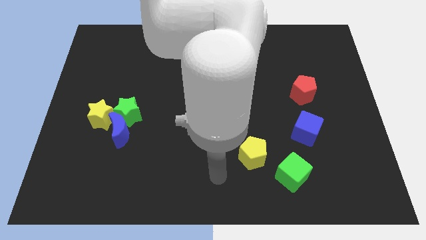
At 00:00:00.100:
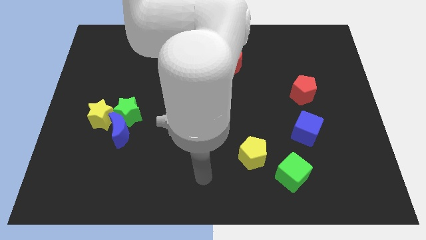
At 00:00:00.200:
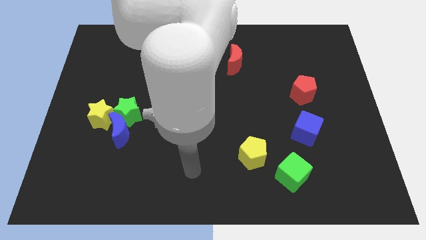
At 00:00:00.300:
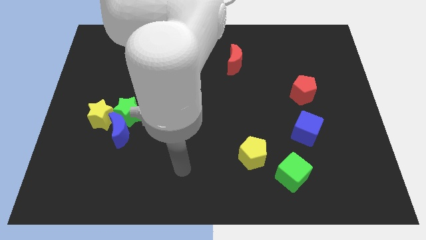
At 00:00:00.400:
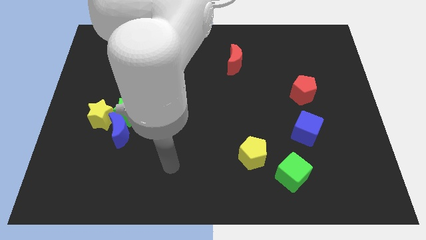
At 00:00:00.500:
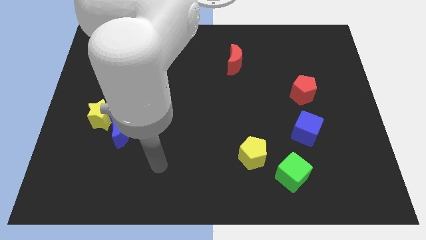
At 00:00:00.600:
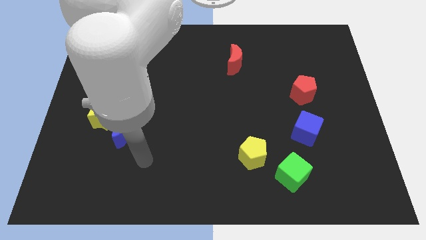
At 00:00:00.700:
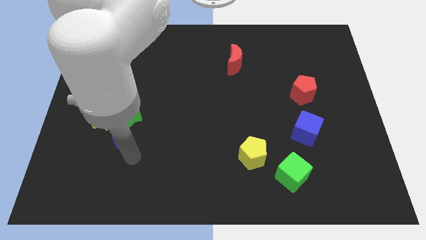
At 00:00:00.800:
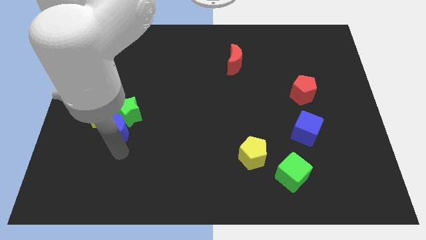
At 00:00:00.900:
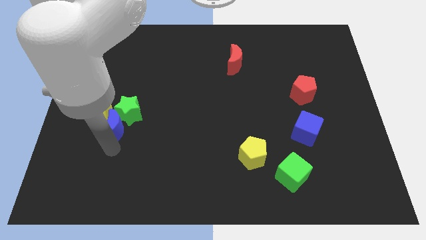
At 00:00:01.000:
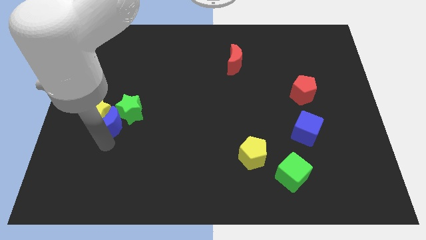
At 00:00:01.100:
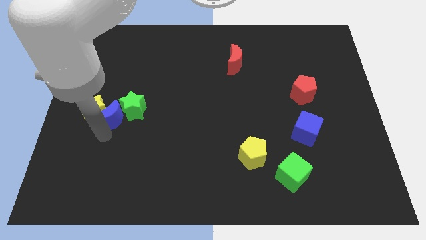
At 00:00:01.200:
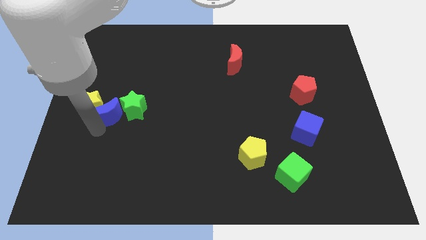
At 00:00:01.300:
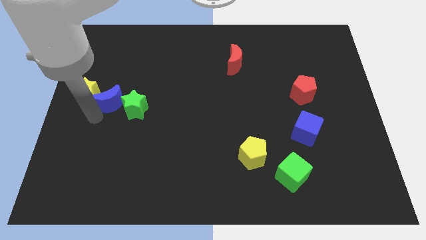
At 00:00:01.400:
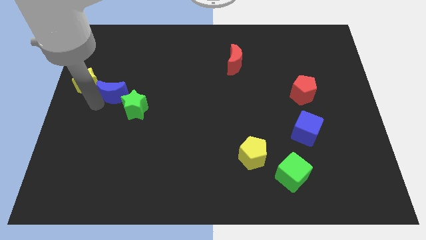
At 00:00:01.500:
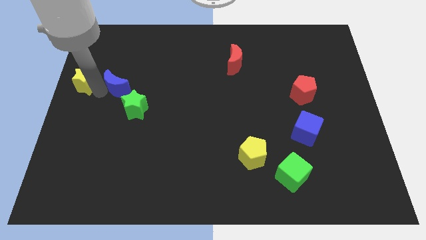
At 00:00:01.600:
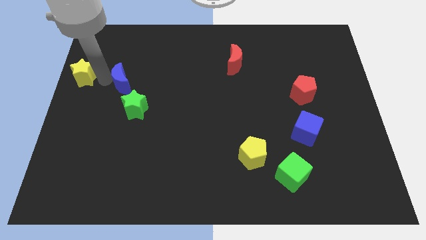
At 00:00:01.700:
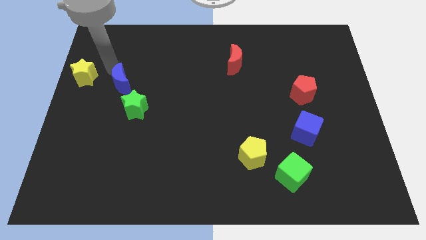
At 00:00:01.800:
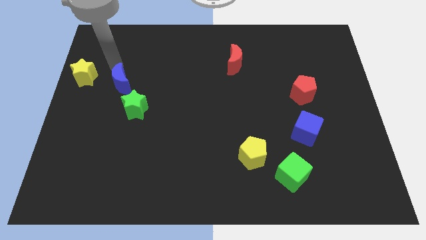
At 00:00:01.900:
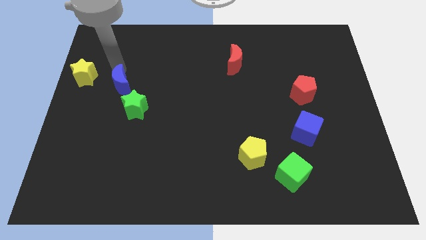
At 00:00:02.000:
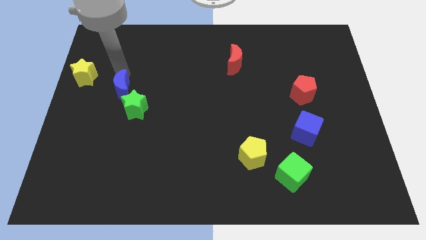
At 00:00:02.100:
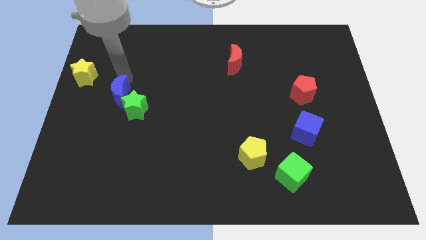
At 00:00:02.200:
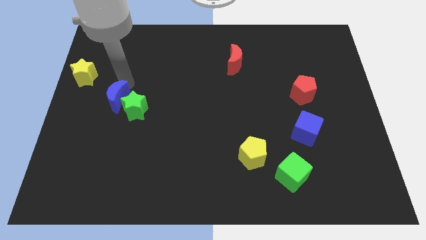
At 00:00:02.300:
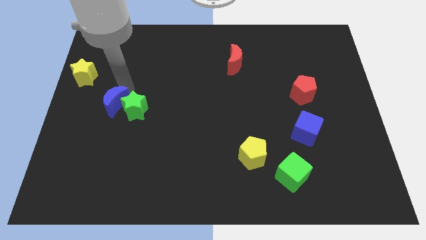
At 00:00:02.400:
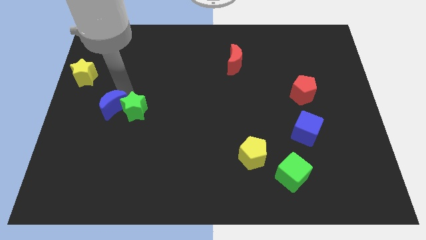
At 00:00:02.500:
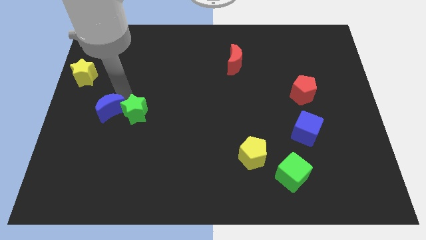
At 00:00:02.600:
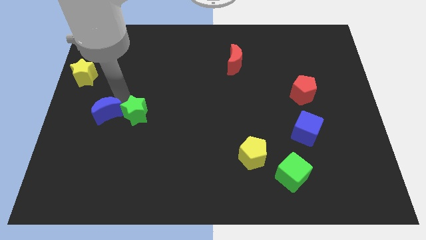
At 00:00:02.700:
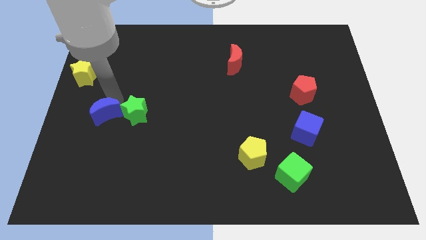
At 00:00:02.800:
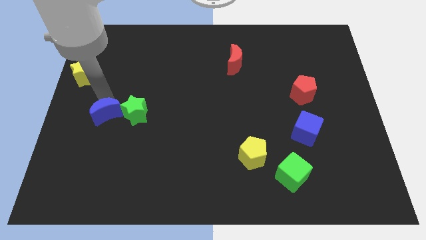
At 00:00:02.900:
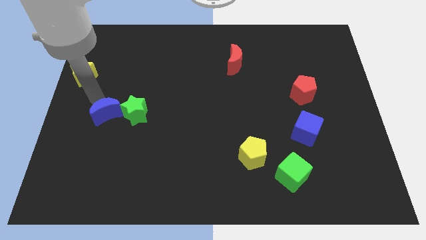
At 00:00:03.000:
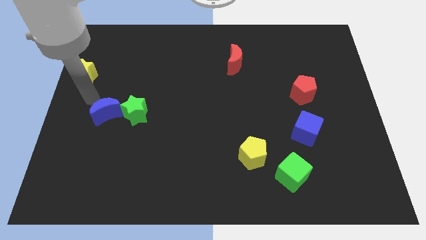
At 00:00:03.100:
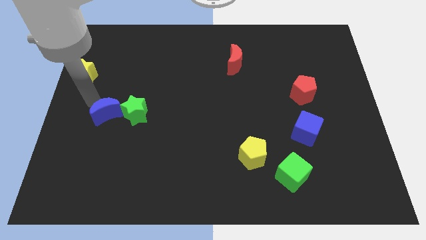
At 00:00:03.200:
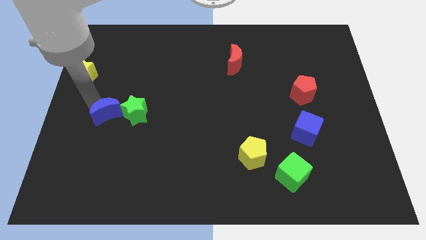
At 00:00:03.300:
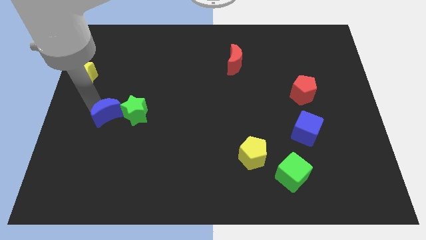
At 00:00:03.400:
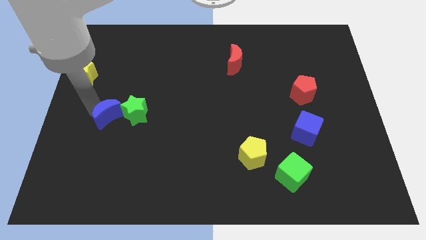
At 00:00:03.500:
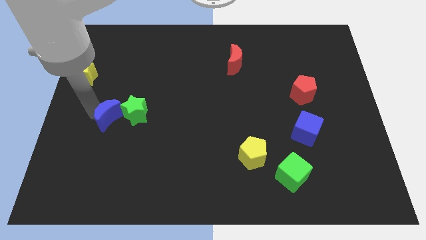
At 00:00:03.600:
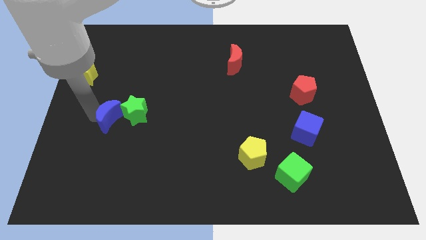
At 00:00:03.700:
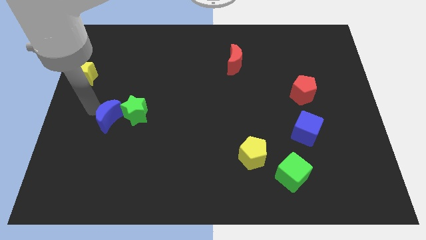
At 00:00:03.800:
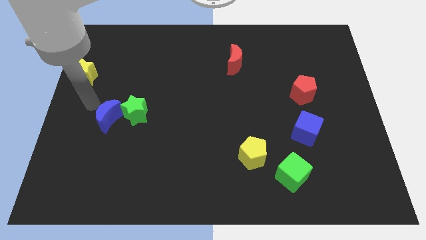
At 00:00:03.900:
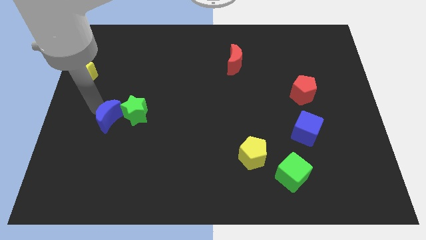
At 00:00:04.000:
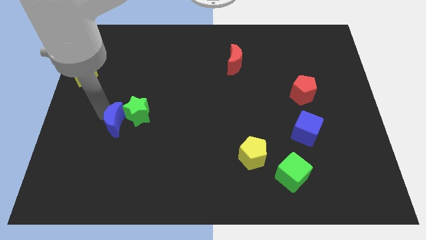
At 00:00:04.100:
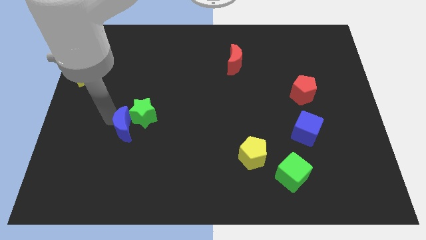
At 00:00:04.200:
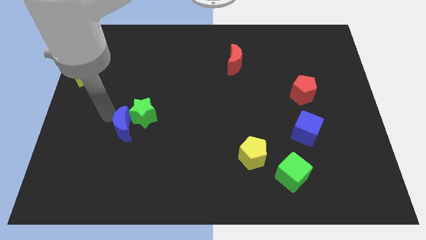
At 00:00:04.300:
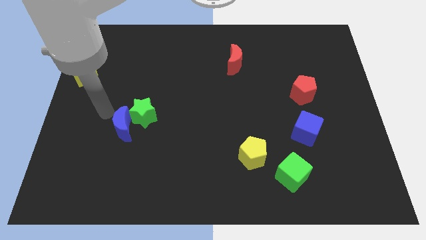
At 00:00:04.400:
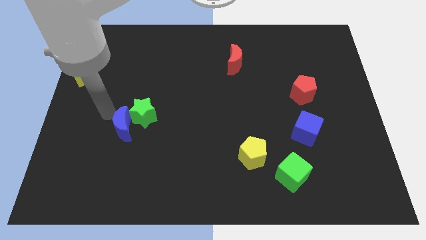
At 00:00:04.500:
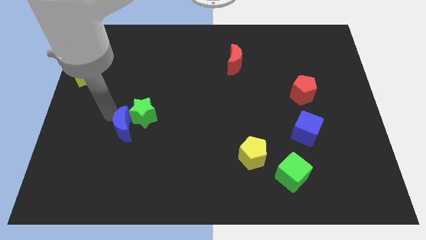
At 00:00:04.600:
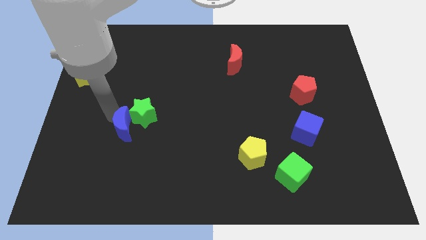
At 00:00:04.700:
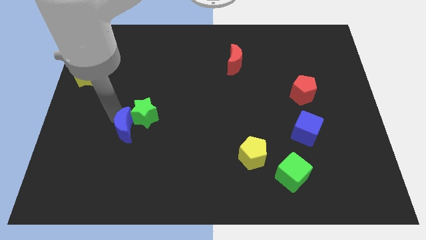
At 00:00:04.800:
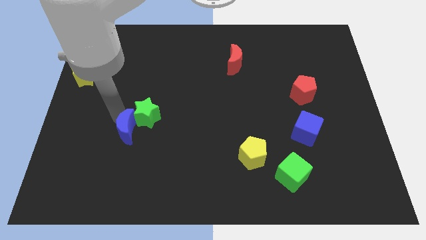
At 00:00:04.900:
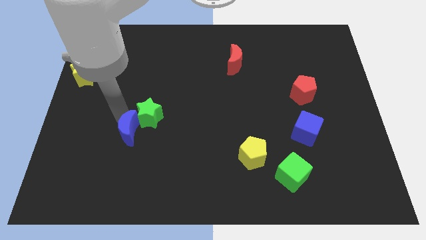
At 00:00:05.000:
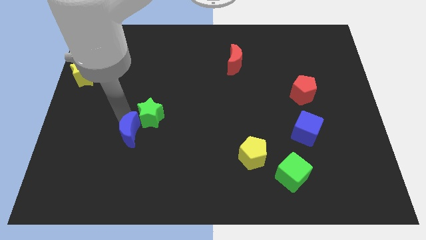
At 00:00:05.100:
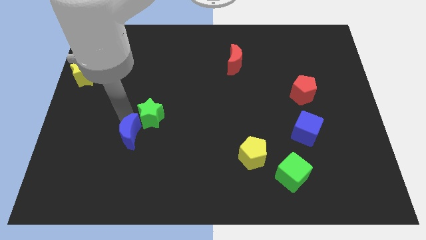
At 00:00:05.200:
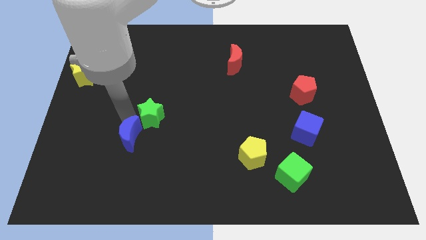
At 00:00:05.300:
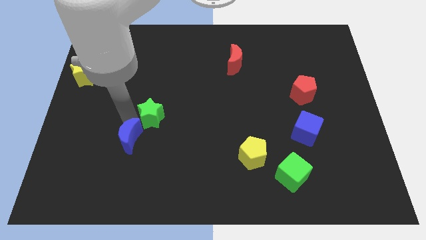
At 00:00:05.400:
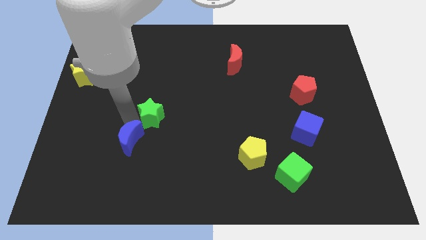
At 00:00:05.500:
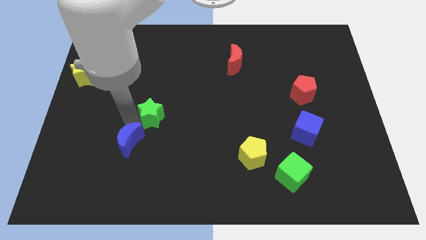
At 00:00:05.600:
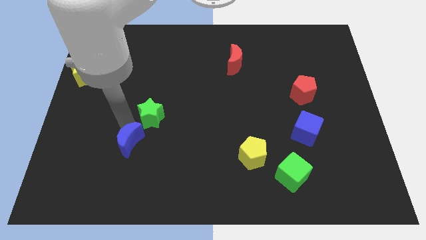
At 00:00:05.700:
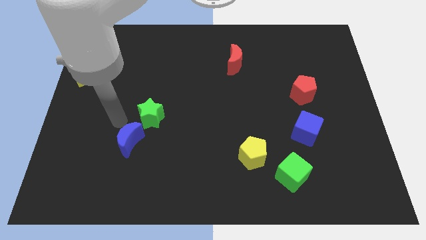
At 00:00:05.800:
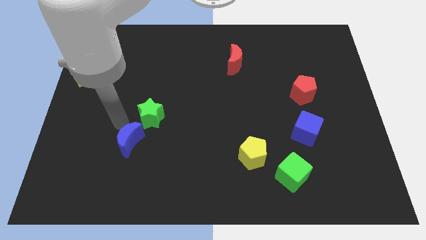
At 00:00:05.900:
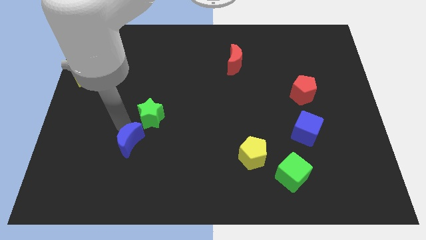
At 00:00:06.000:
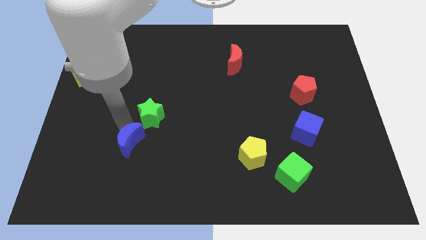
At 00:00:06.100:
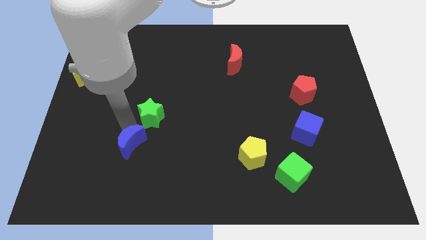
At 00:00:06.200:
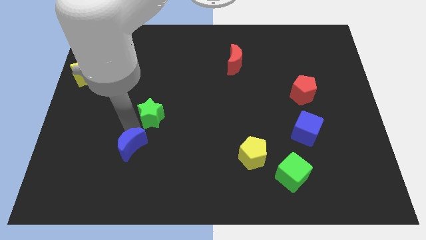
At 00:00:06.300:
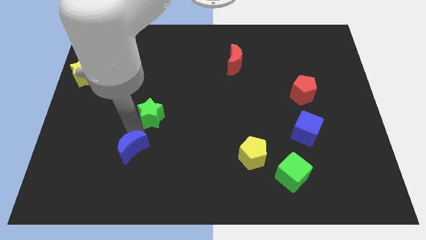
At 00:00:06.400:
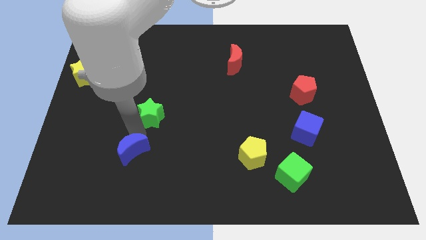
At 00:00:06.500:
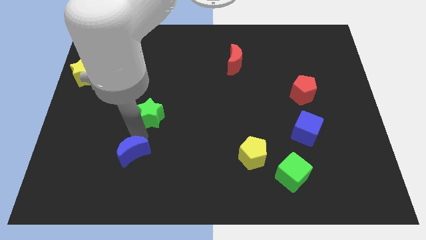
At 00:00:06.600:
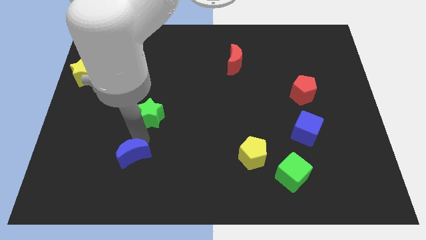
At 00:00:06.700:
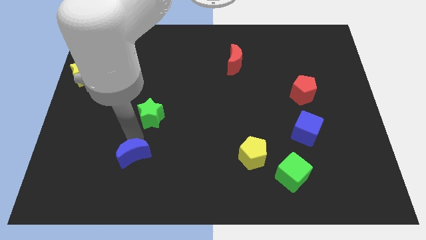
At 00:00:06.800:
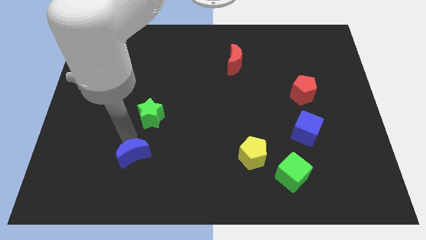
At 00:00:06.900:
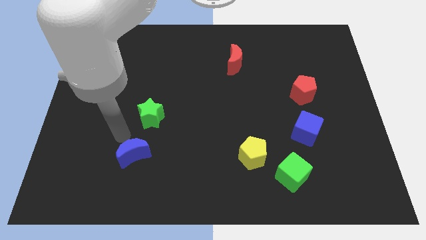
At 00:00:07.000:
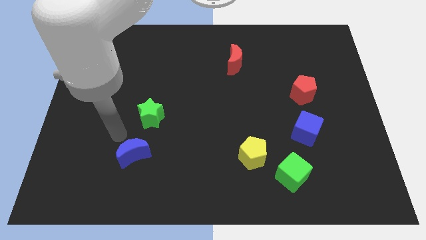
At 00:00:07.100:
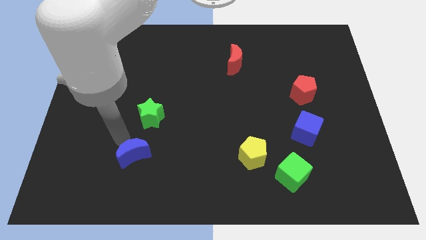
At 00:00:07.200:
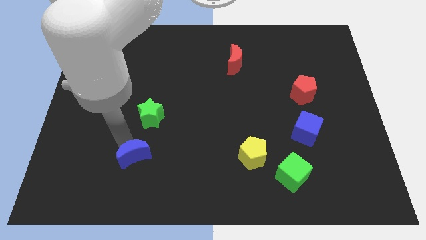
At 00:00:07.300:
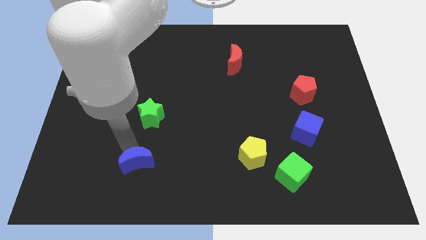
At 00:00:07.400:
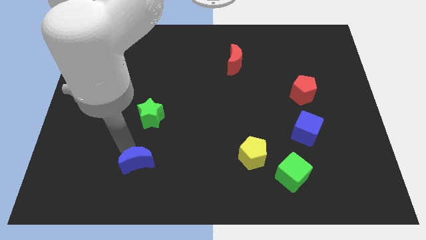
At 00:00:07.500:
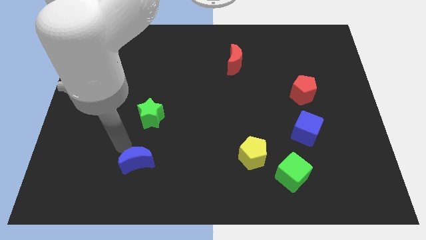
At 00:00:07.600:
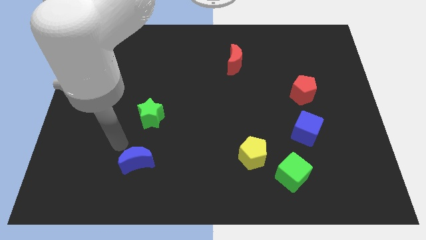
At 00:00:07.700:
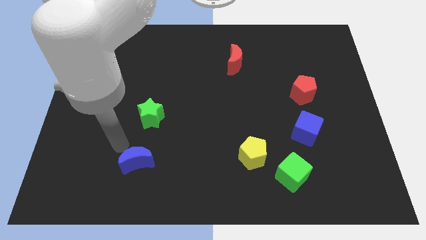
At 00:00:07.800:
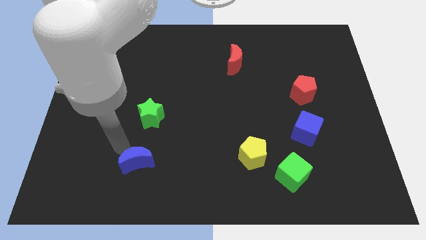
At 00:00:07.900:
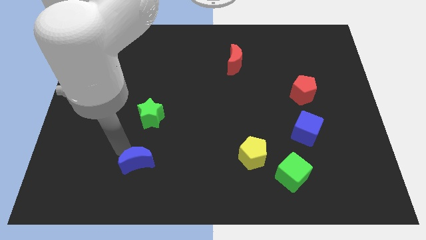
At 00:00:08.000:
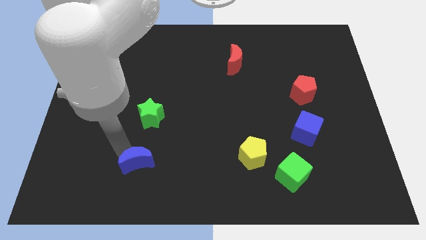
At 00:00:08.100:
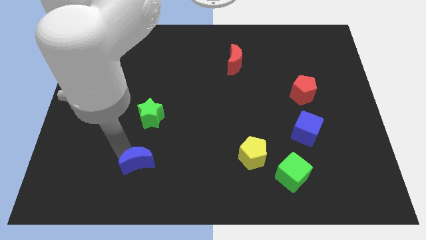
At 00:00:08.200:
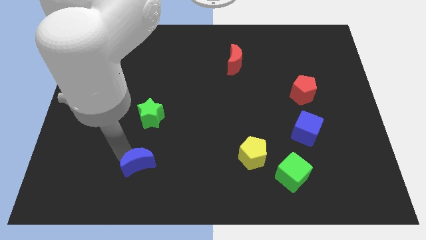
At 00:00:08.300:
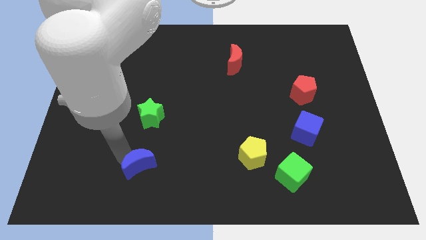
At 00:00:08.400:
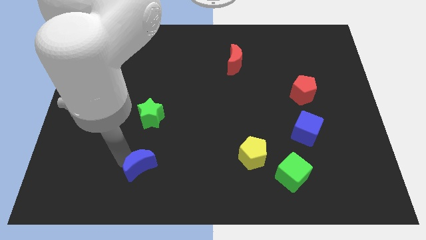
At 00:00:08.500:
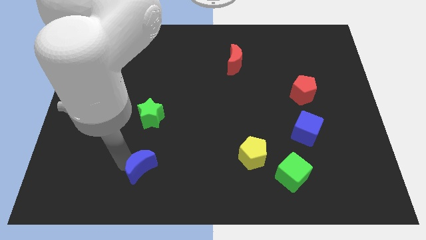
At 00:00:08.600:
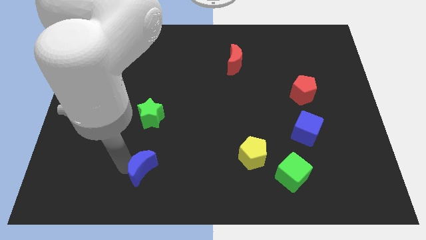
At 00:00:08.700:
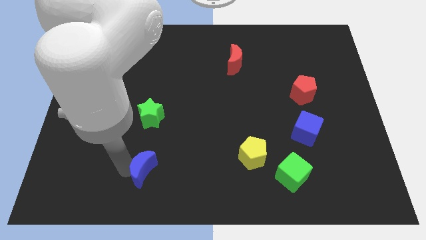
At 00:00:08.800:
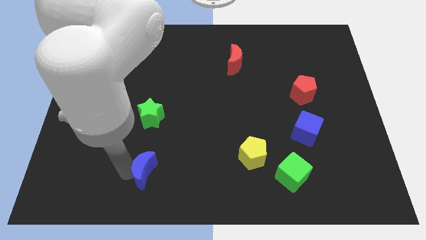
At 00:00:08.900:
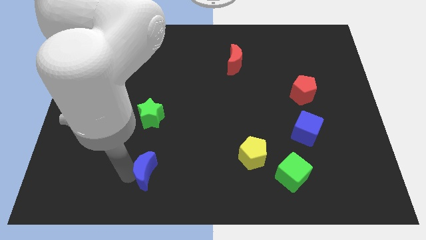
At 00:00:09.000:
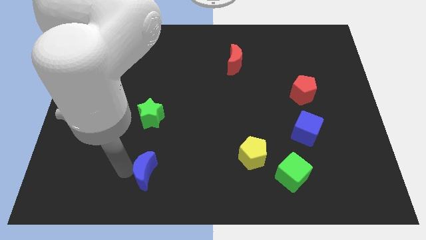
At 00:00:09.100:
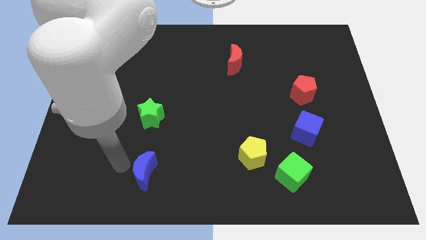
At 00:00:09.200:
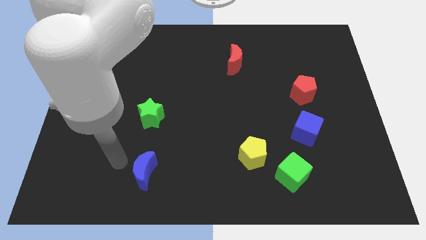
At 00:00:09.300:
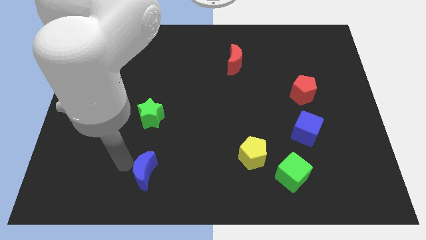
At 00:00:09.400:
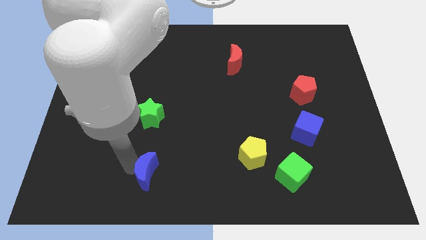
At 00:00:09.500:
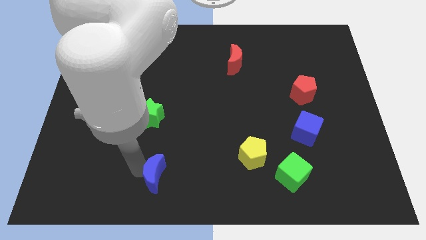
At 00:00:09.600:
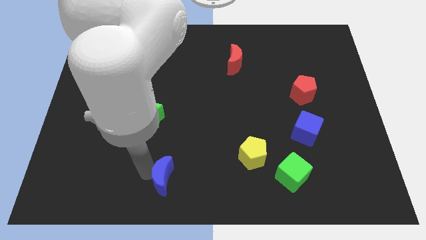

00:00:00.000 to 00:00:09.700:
move the blue moon to the bottom side
